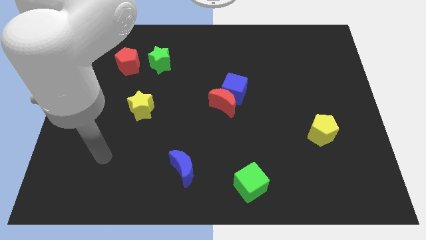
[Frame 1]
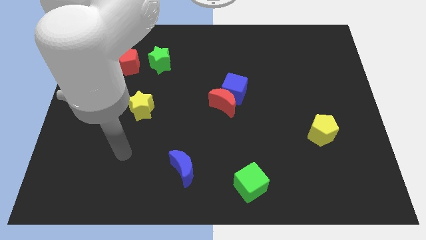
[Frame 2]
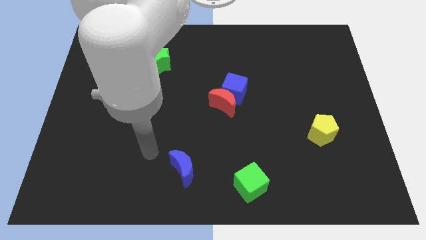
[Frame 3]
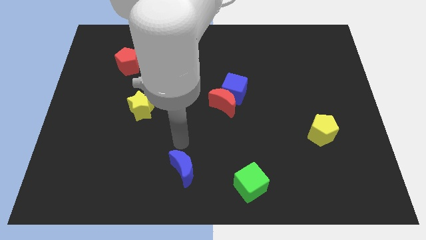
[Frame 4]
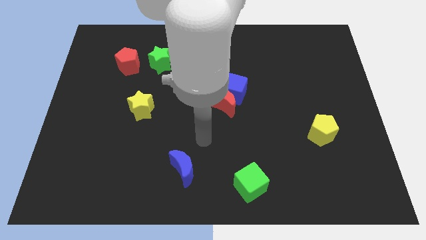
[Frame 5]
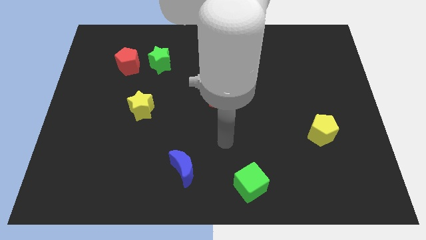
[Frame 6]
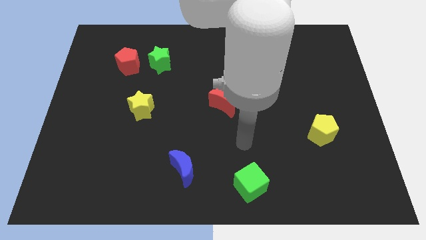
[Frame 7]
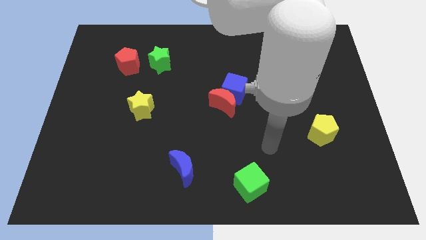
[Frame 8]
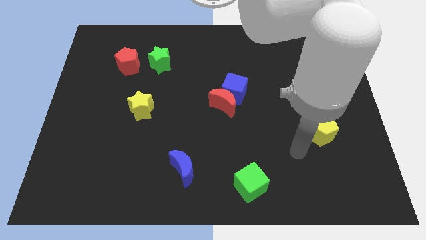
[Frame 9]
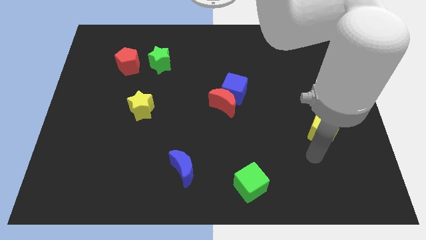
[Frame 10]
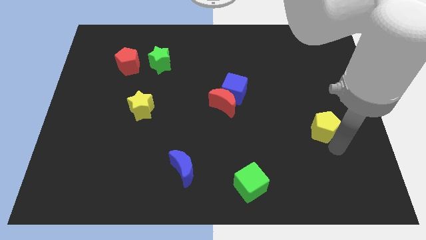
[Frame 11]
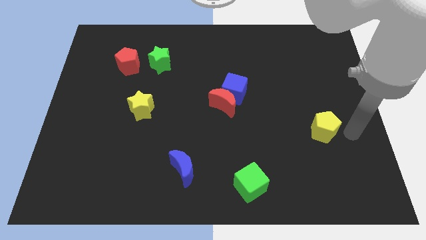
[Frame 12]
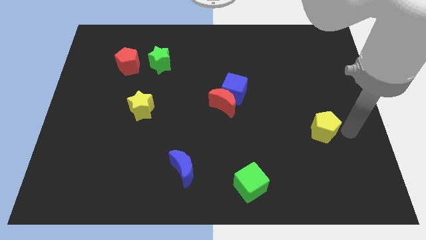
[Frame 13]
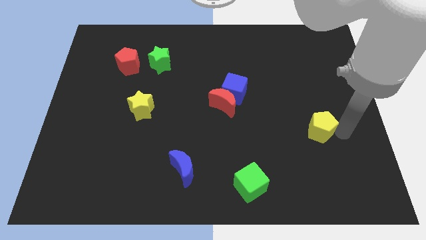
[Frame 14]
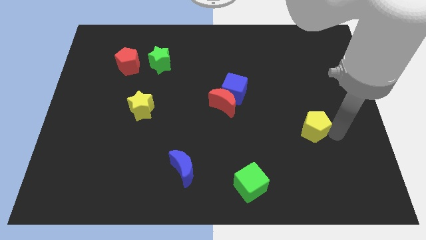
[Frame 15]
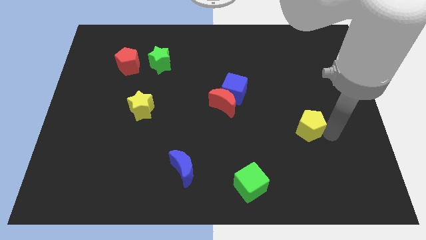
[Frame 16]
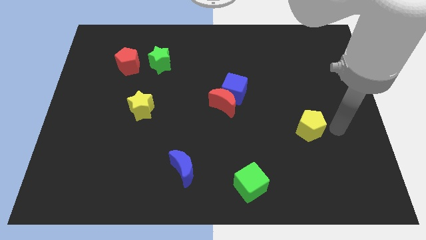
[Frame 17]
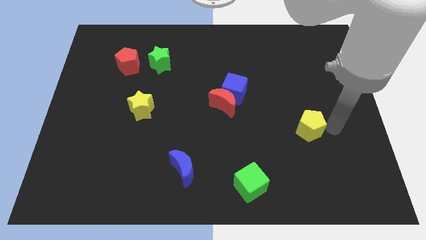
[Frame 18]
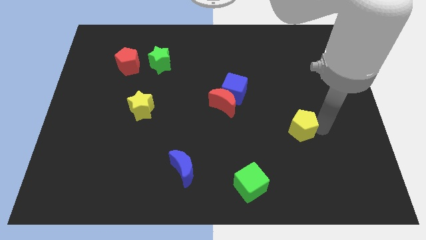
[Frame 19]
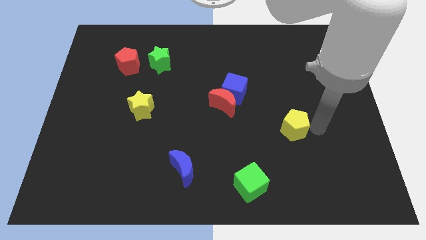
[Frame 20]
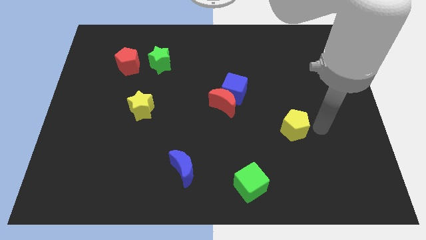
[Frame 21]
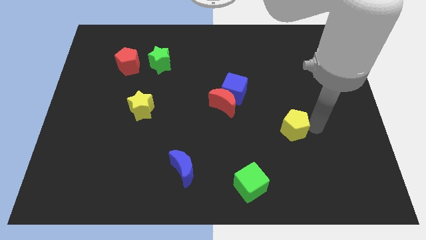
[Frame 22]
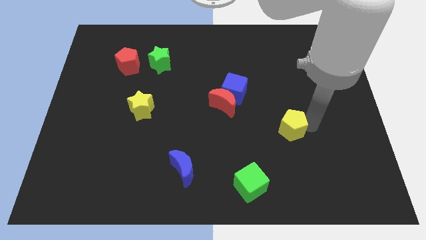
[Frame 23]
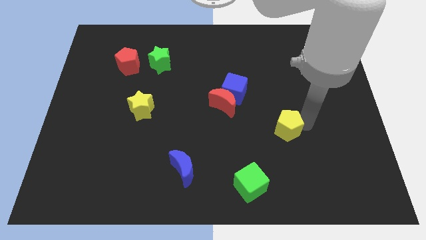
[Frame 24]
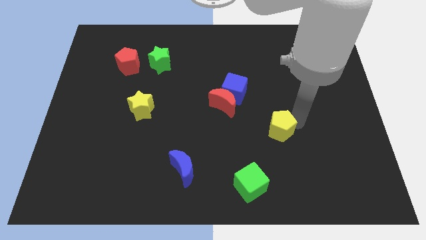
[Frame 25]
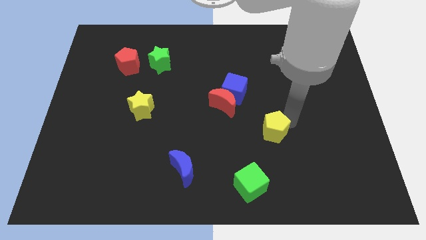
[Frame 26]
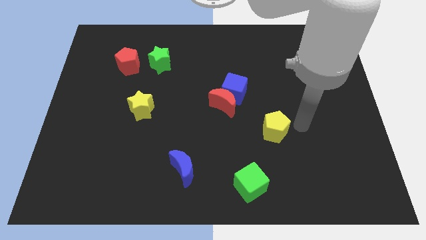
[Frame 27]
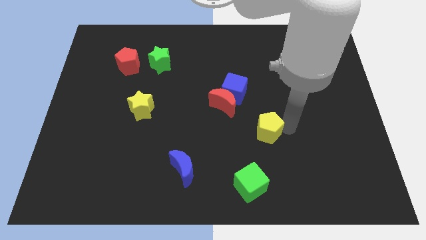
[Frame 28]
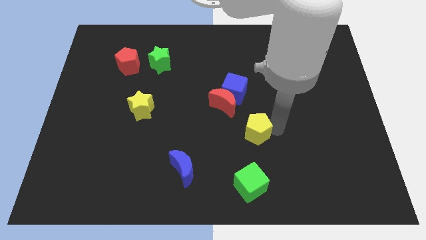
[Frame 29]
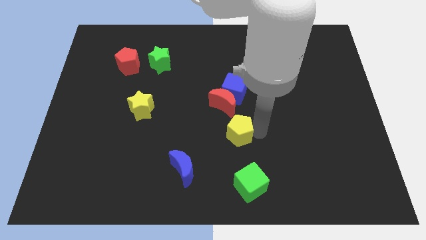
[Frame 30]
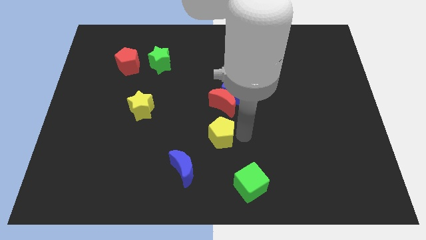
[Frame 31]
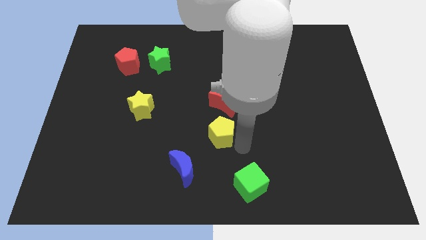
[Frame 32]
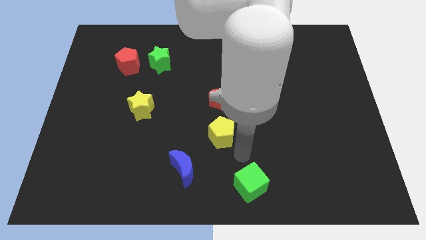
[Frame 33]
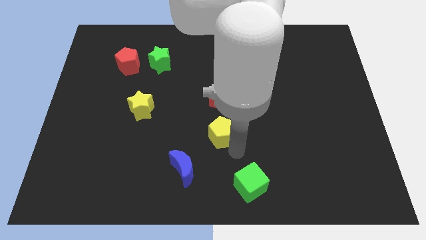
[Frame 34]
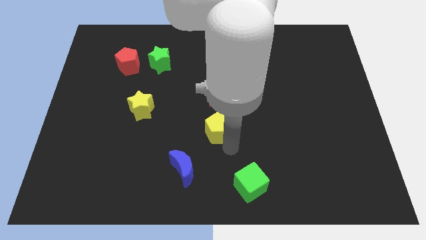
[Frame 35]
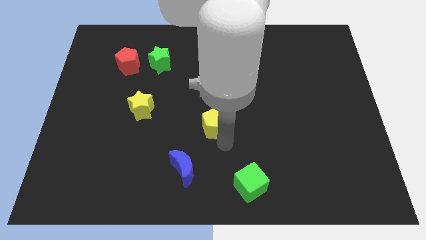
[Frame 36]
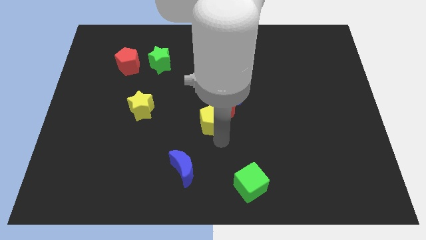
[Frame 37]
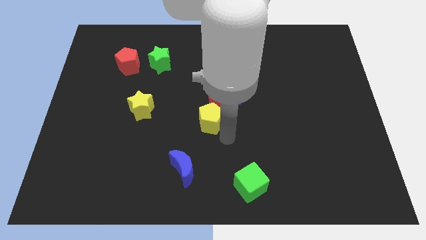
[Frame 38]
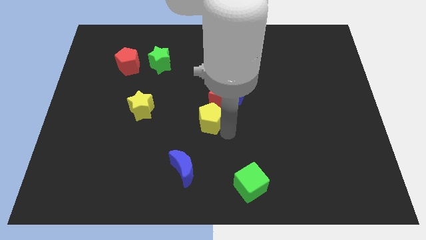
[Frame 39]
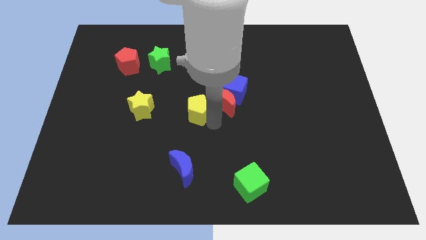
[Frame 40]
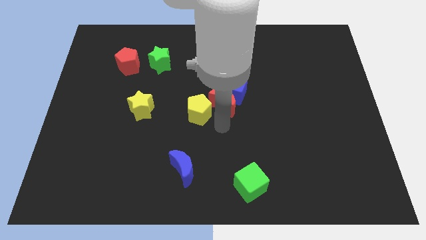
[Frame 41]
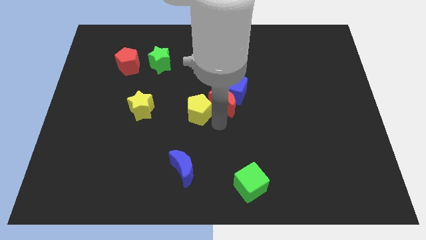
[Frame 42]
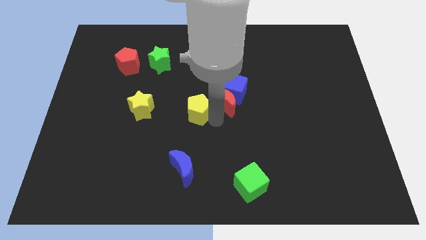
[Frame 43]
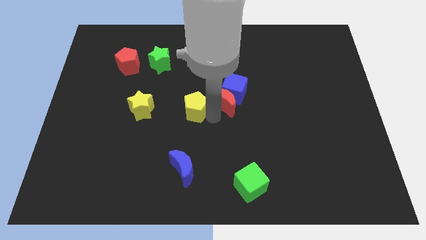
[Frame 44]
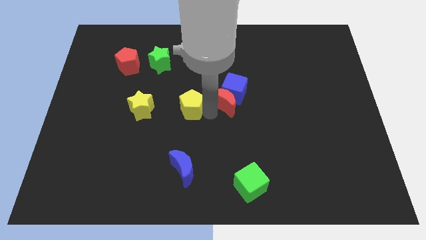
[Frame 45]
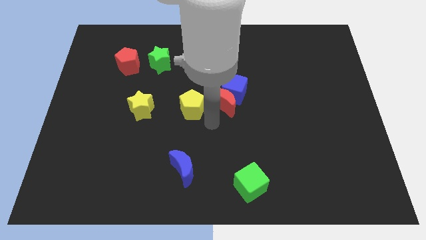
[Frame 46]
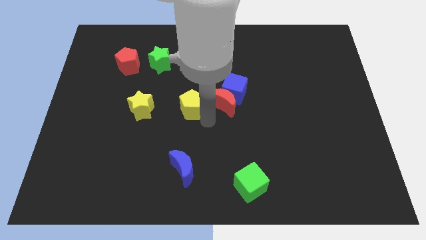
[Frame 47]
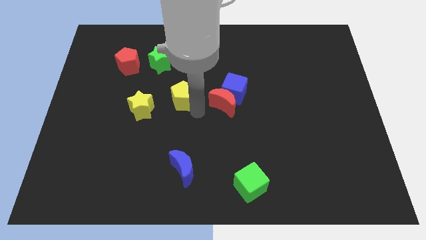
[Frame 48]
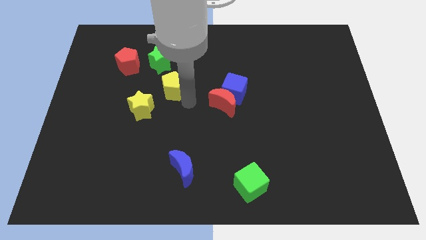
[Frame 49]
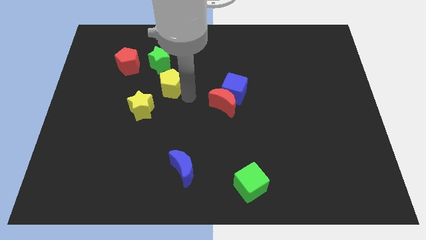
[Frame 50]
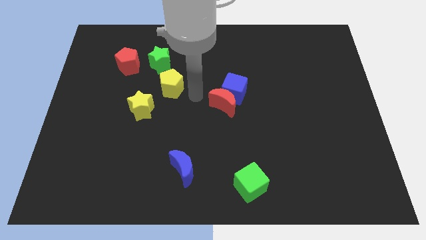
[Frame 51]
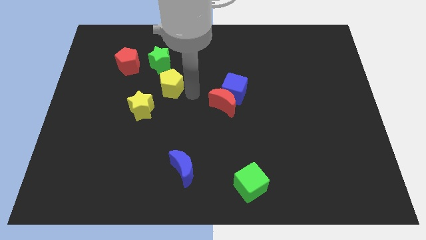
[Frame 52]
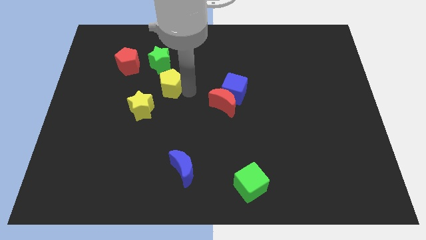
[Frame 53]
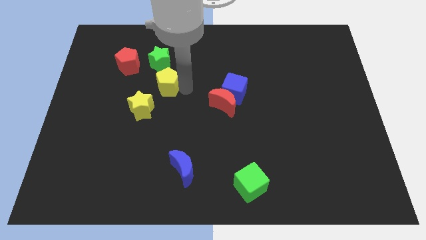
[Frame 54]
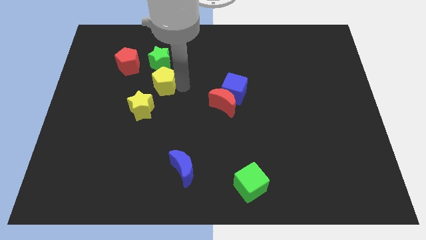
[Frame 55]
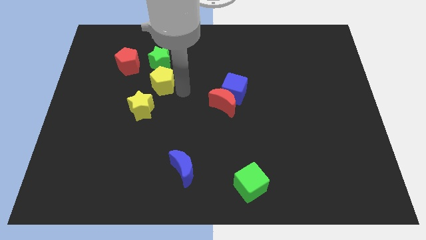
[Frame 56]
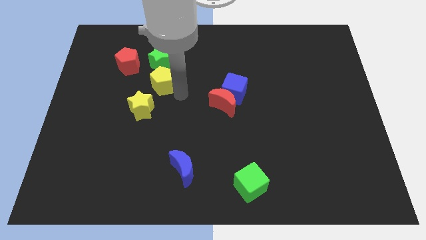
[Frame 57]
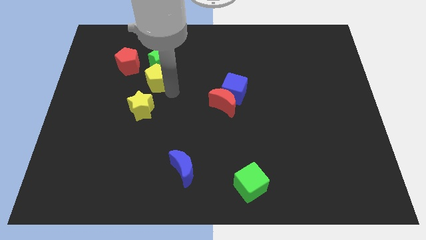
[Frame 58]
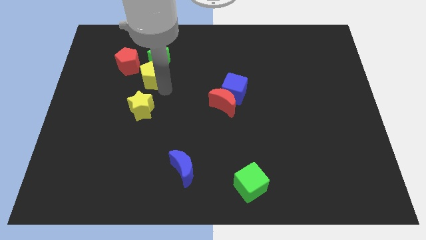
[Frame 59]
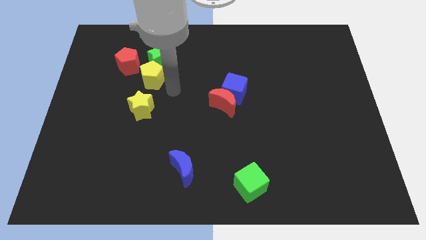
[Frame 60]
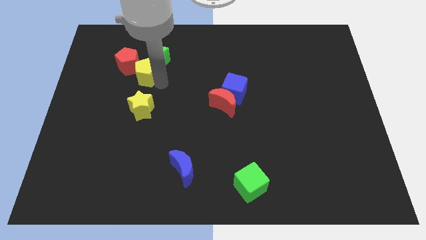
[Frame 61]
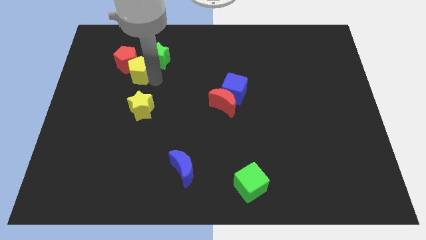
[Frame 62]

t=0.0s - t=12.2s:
put the yellow pentagon towards the red pentagon

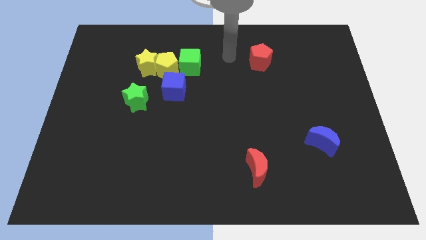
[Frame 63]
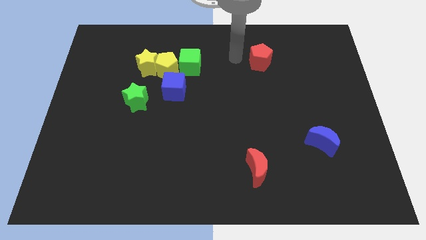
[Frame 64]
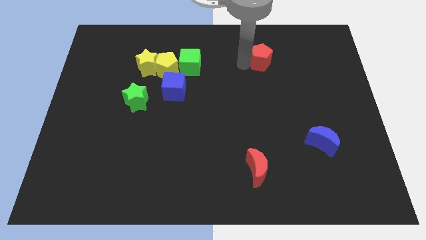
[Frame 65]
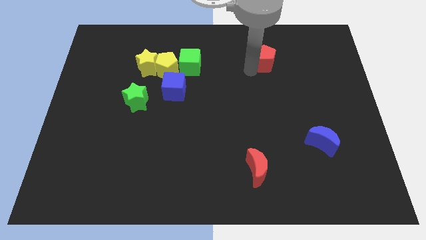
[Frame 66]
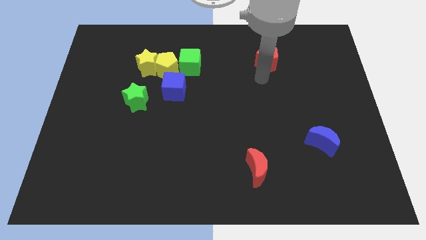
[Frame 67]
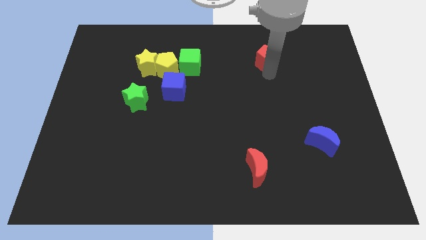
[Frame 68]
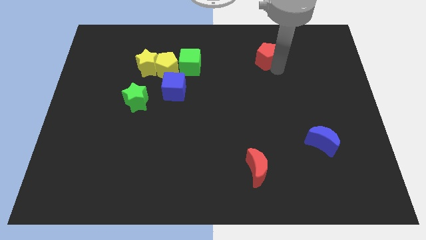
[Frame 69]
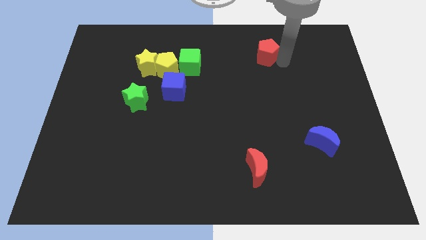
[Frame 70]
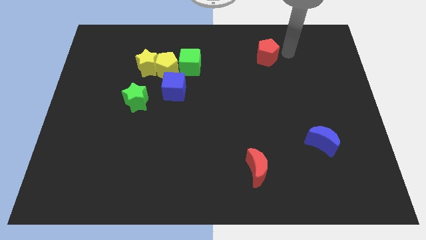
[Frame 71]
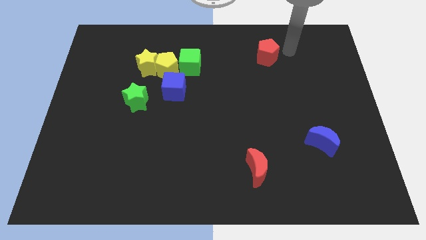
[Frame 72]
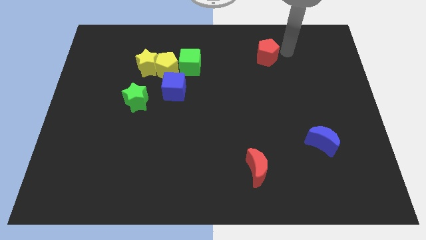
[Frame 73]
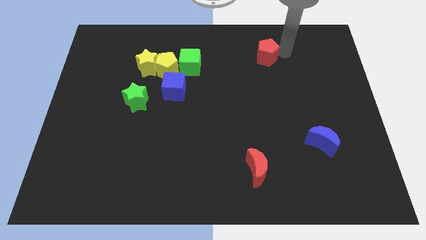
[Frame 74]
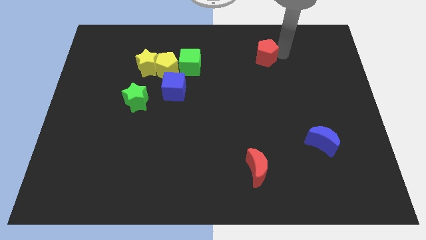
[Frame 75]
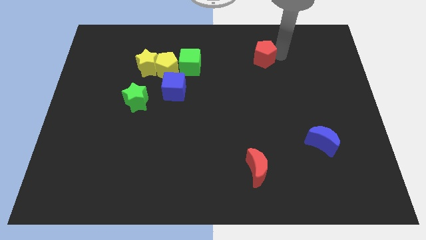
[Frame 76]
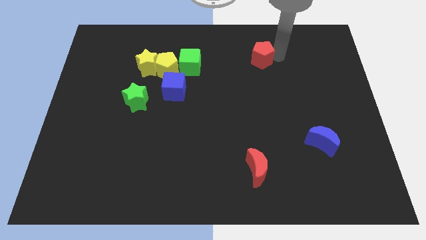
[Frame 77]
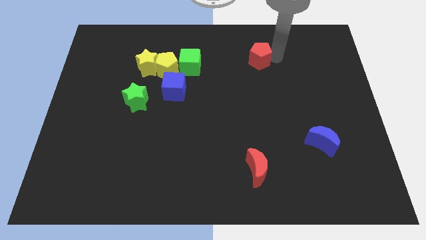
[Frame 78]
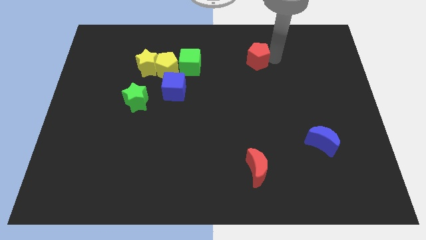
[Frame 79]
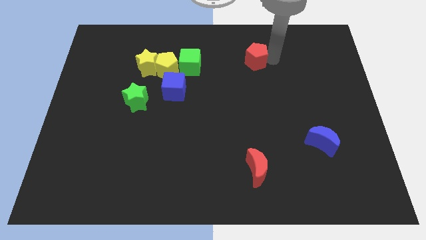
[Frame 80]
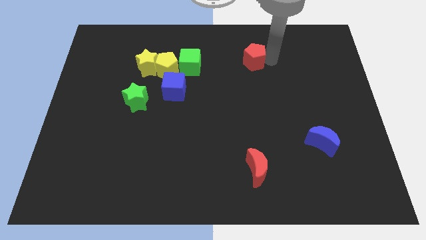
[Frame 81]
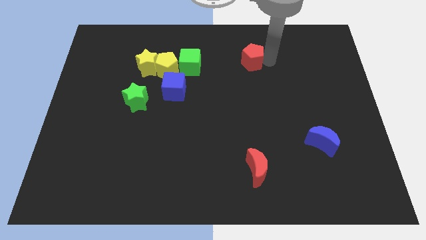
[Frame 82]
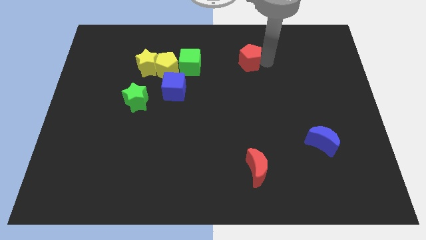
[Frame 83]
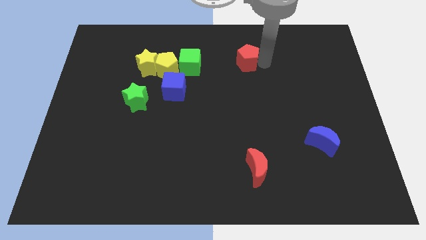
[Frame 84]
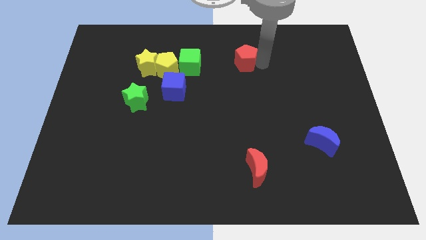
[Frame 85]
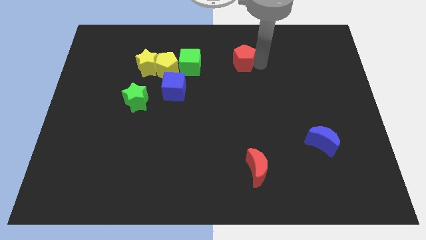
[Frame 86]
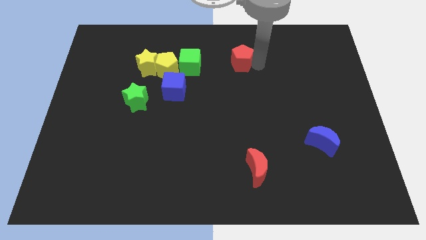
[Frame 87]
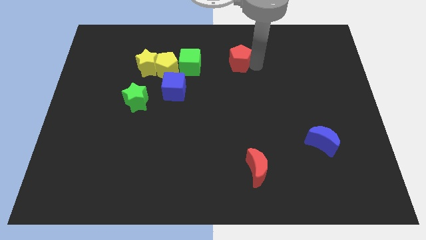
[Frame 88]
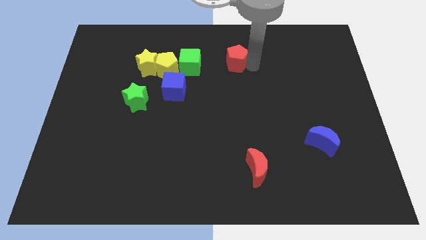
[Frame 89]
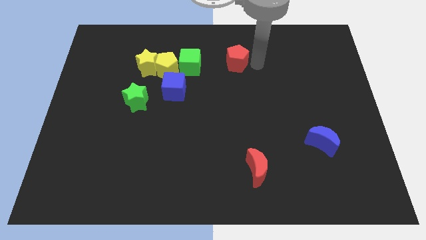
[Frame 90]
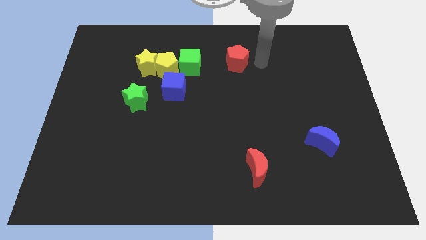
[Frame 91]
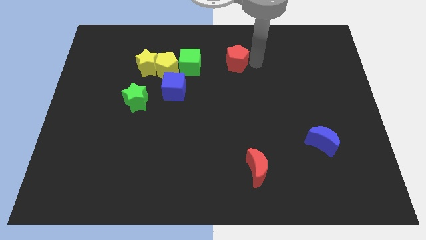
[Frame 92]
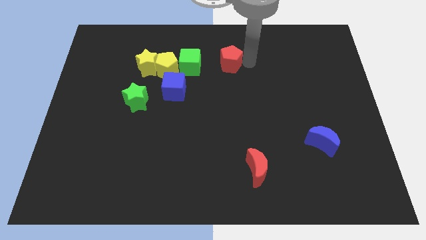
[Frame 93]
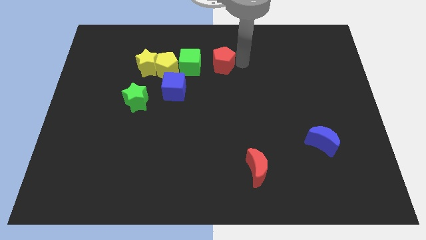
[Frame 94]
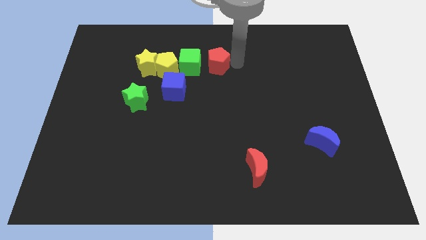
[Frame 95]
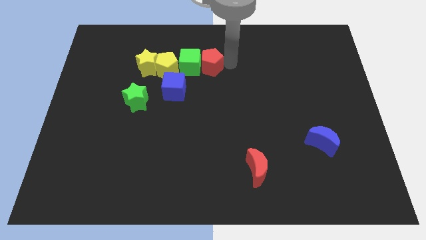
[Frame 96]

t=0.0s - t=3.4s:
move the red pentagon to the green cube
